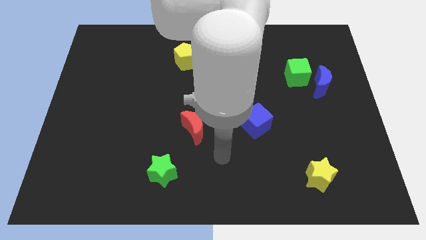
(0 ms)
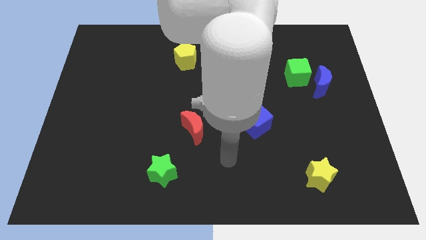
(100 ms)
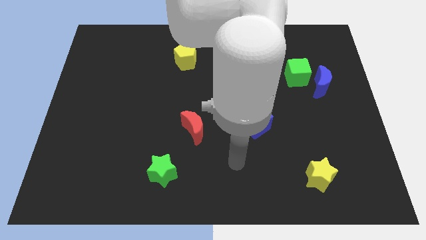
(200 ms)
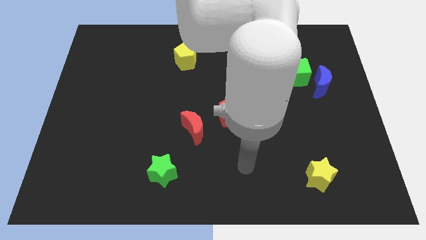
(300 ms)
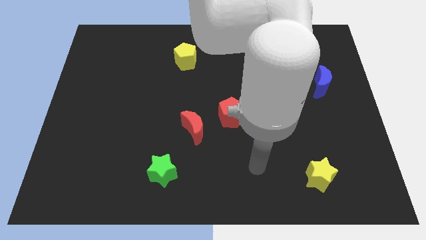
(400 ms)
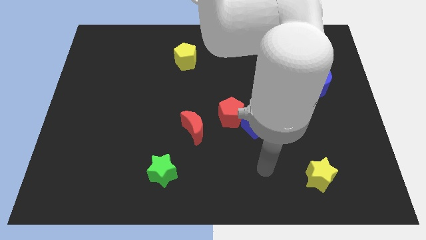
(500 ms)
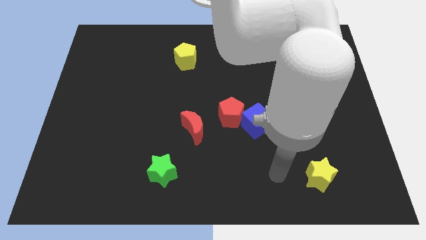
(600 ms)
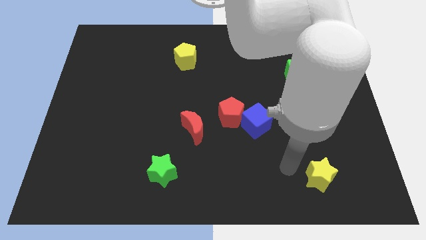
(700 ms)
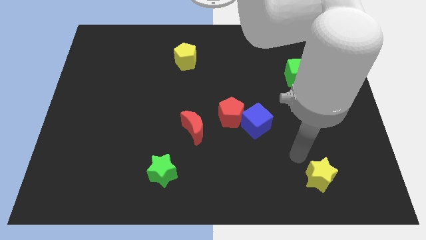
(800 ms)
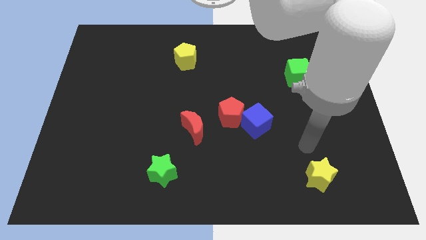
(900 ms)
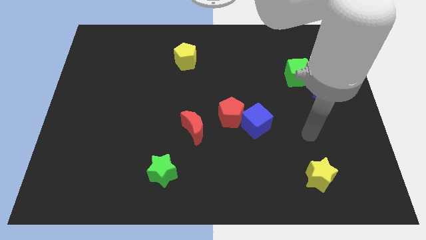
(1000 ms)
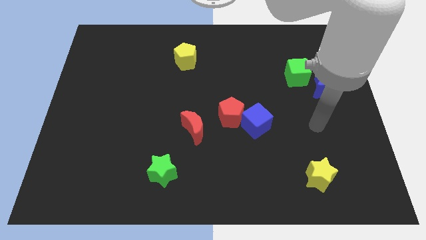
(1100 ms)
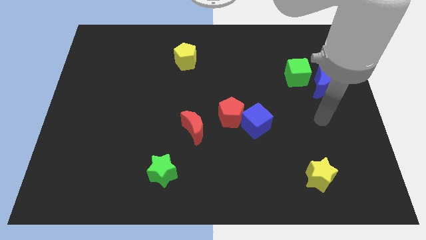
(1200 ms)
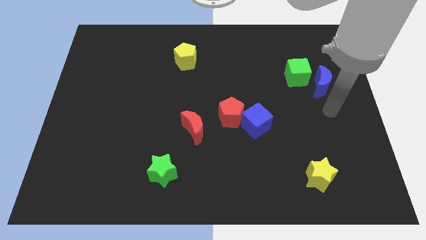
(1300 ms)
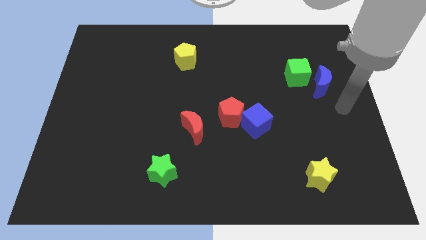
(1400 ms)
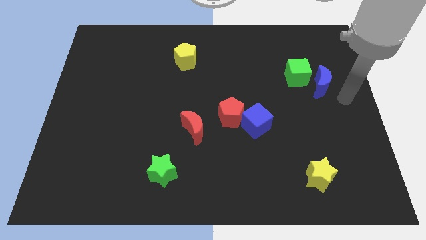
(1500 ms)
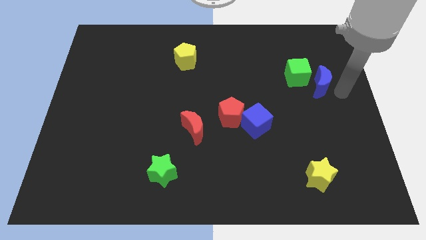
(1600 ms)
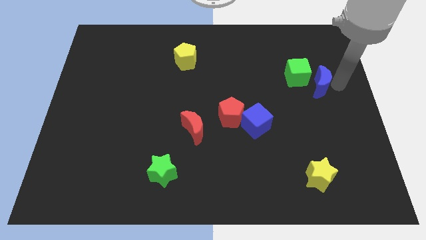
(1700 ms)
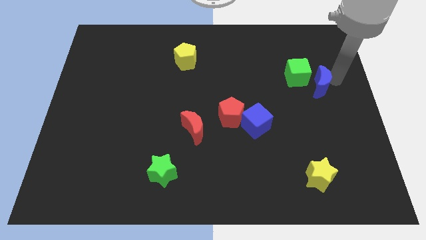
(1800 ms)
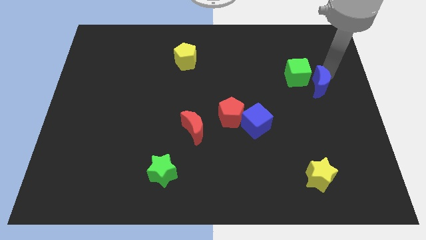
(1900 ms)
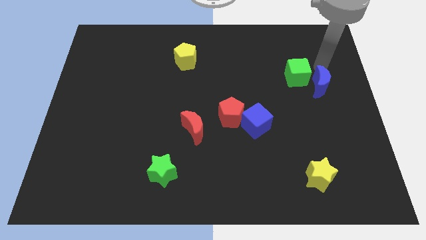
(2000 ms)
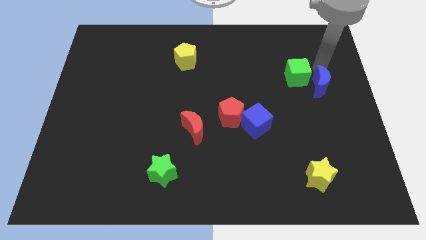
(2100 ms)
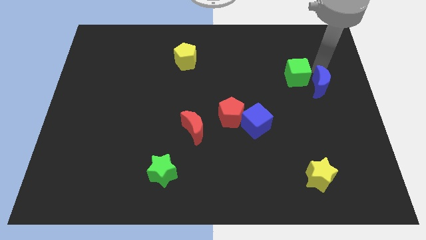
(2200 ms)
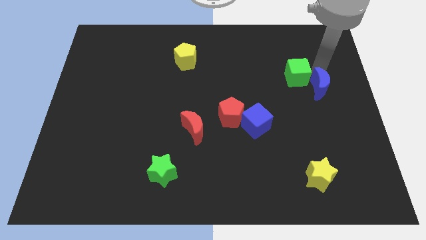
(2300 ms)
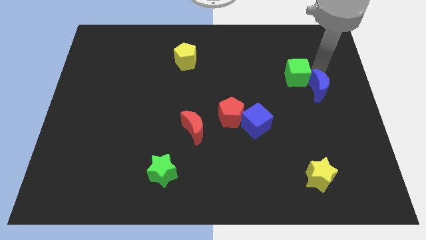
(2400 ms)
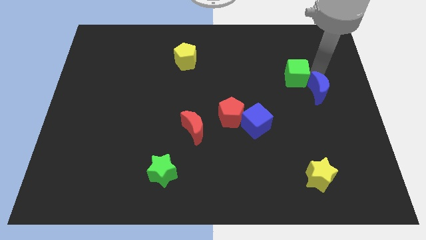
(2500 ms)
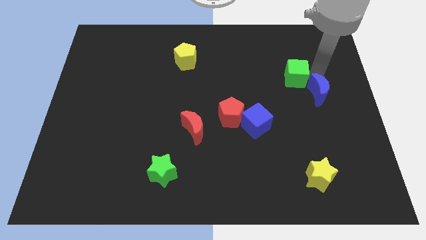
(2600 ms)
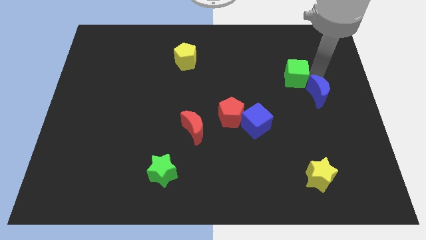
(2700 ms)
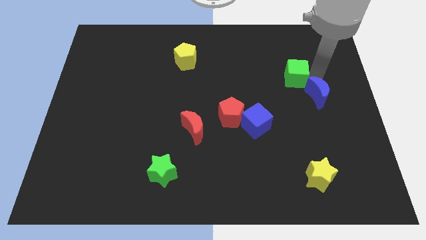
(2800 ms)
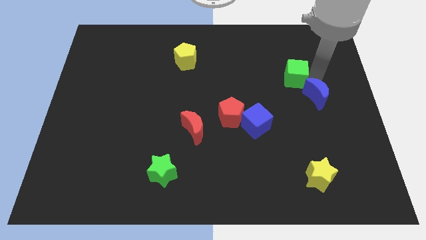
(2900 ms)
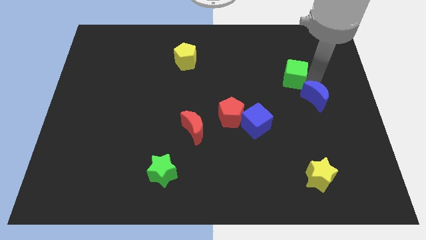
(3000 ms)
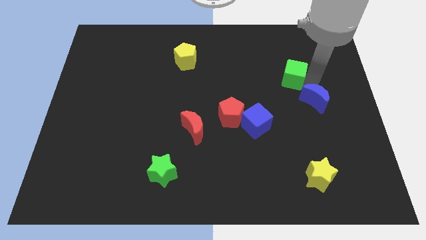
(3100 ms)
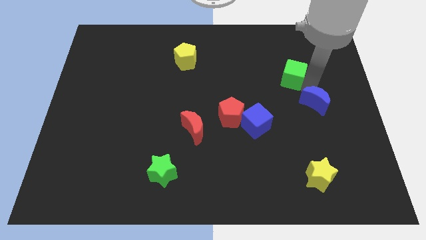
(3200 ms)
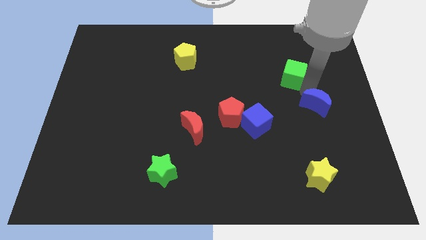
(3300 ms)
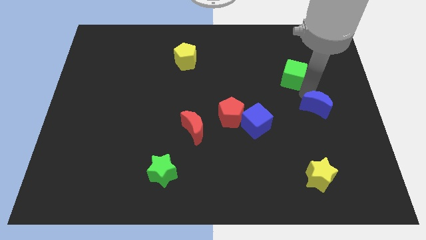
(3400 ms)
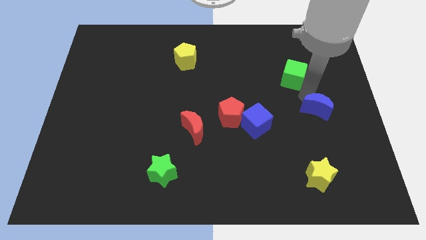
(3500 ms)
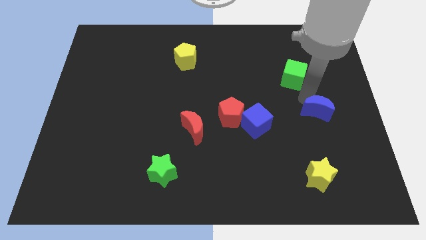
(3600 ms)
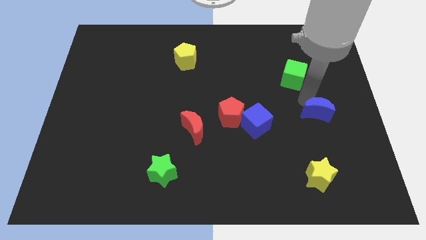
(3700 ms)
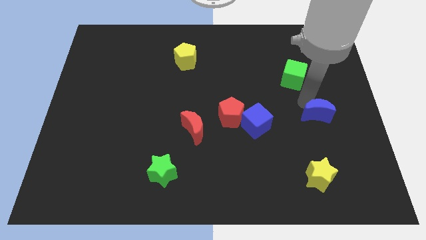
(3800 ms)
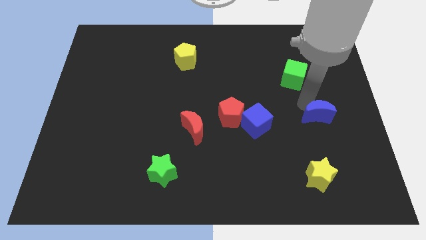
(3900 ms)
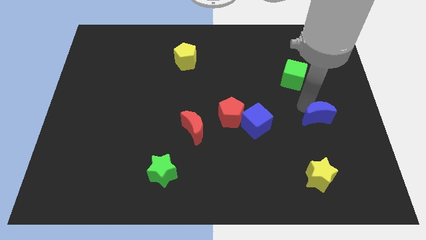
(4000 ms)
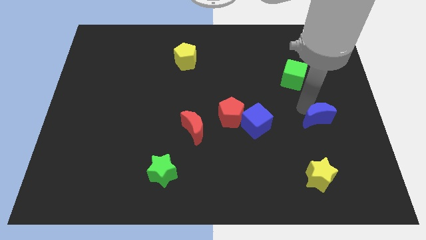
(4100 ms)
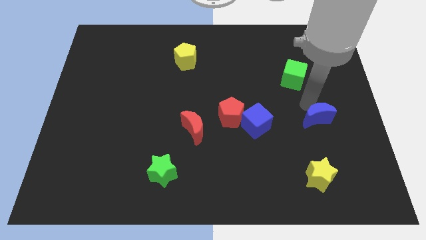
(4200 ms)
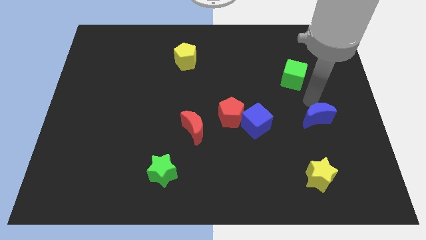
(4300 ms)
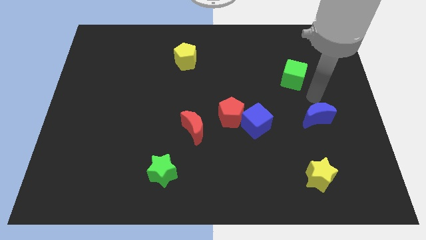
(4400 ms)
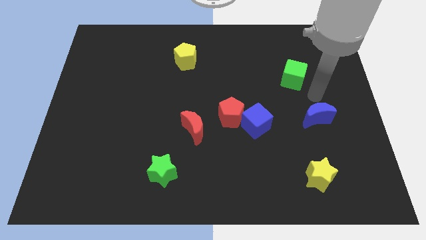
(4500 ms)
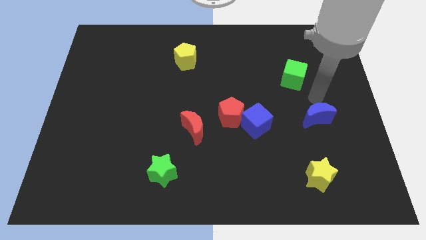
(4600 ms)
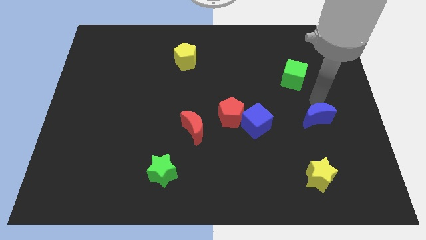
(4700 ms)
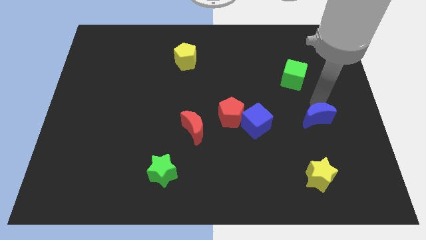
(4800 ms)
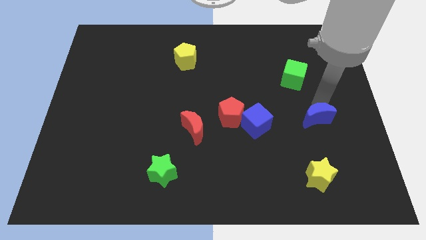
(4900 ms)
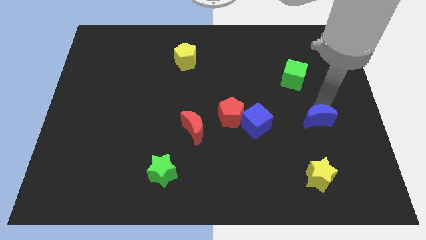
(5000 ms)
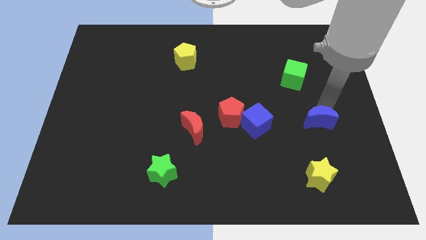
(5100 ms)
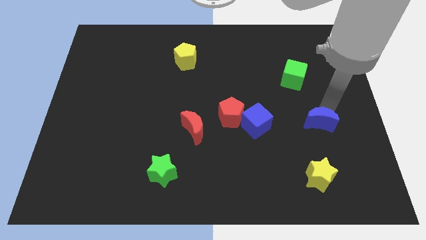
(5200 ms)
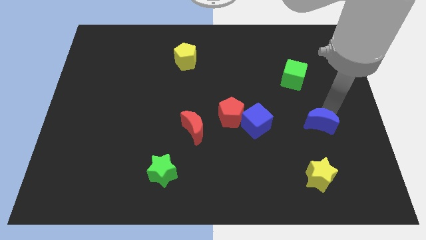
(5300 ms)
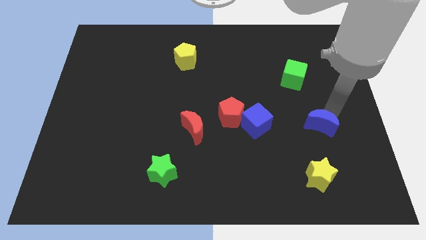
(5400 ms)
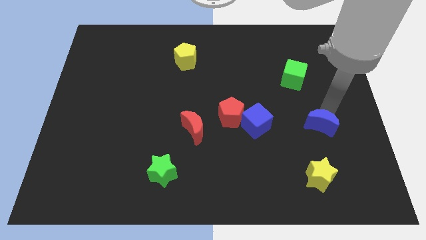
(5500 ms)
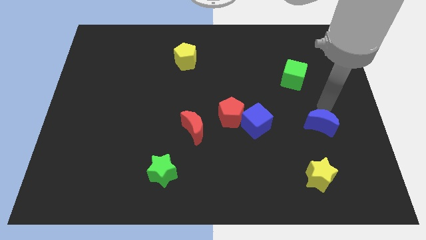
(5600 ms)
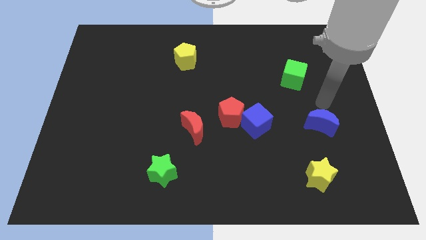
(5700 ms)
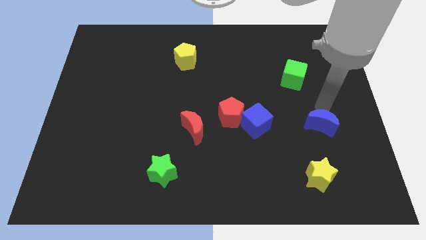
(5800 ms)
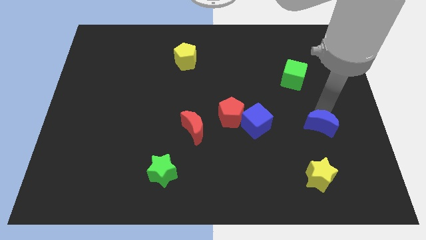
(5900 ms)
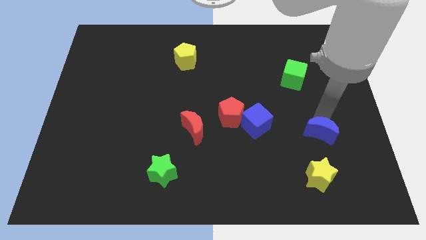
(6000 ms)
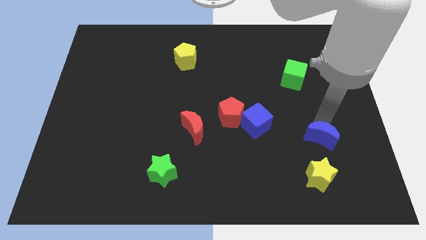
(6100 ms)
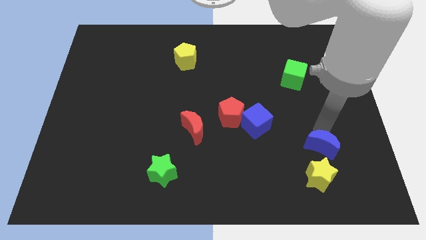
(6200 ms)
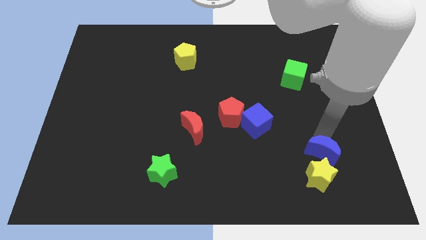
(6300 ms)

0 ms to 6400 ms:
put the blue moon close to the yellow star

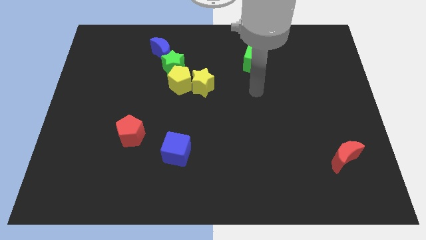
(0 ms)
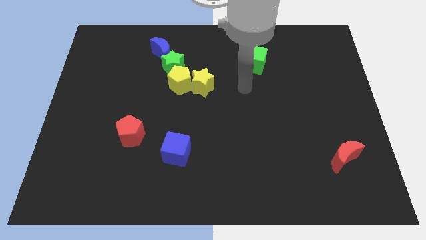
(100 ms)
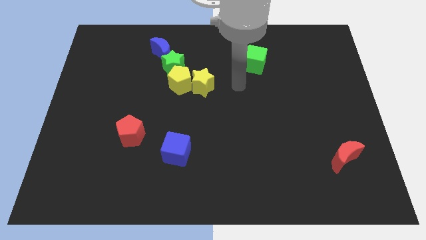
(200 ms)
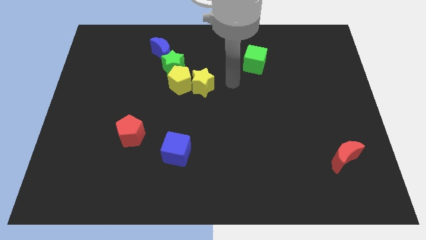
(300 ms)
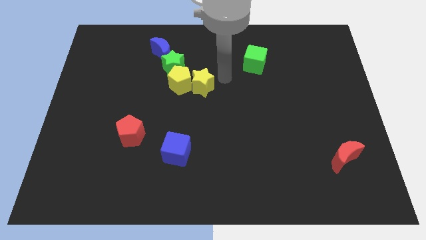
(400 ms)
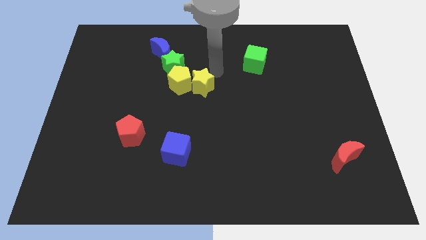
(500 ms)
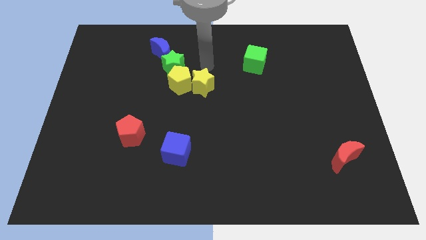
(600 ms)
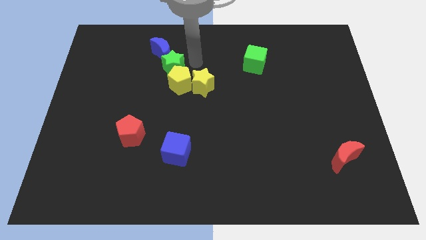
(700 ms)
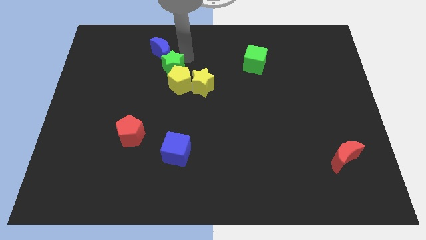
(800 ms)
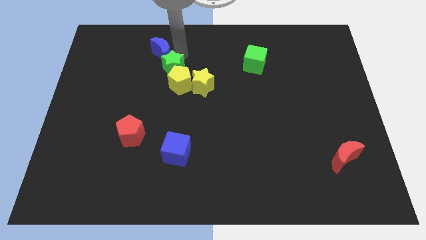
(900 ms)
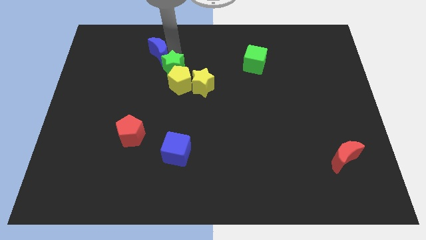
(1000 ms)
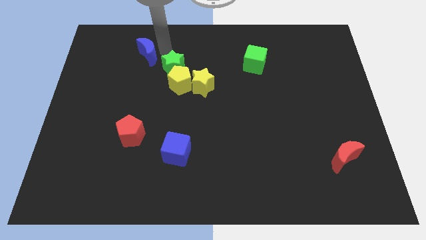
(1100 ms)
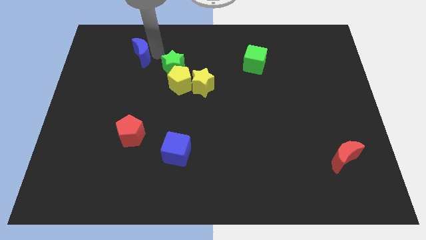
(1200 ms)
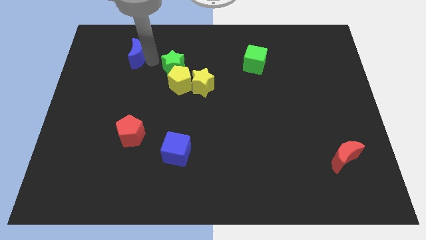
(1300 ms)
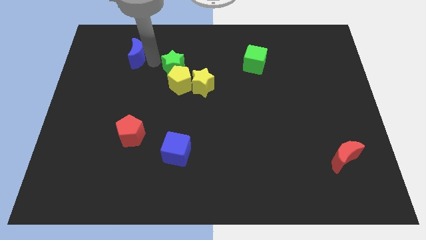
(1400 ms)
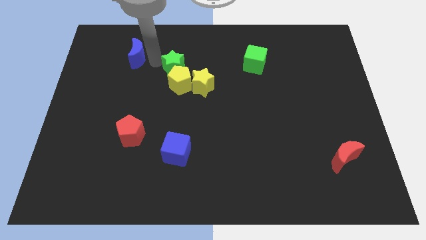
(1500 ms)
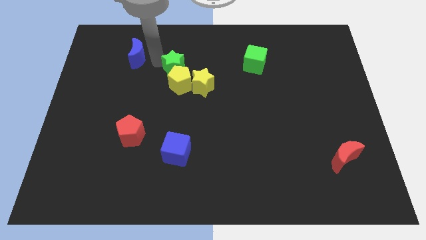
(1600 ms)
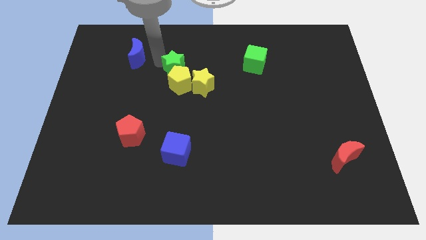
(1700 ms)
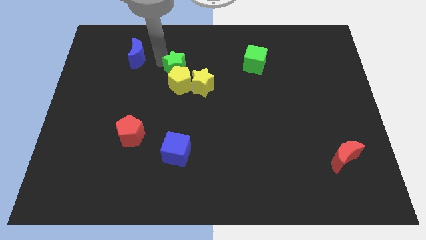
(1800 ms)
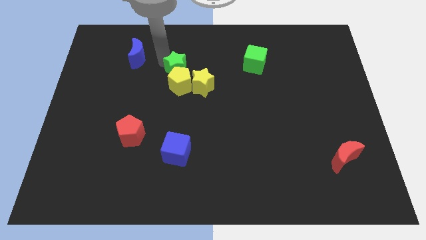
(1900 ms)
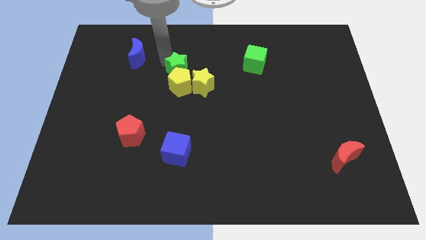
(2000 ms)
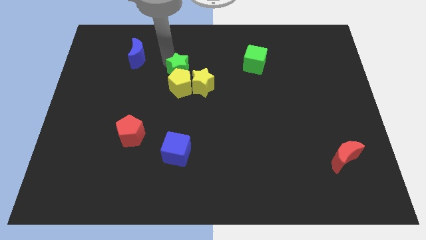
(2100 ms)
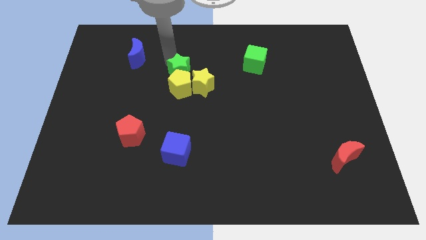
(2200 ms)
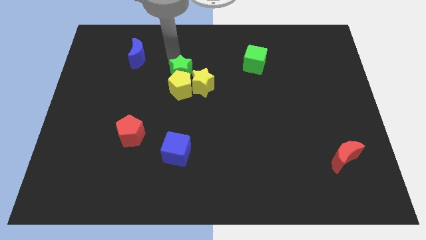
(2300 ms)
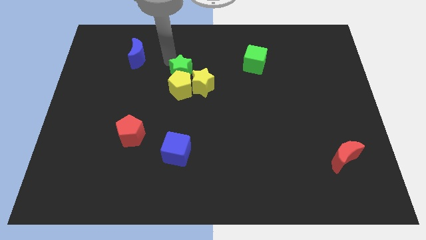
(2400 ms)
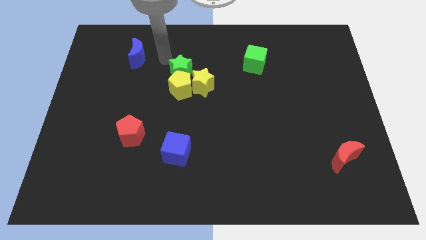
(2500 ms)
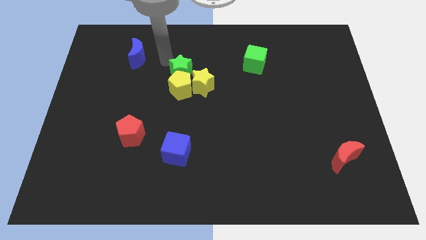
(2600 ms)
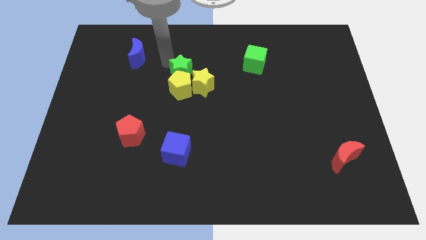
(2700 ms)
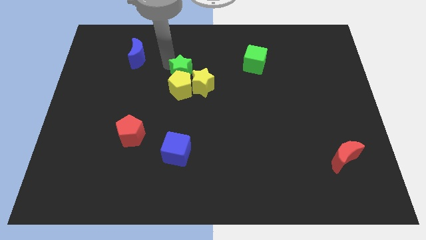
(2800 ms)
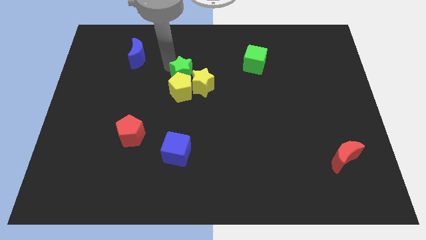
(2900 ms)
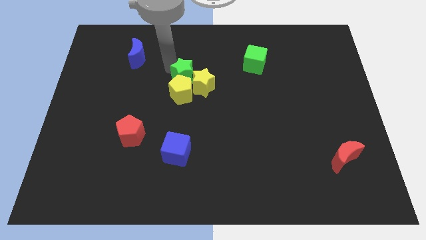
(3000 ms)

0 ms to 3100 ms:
slide the green star close to the yellow star
